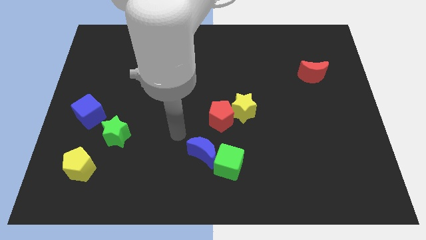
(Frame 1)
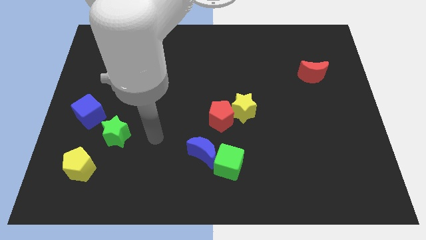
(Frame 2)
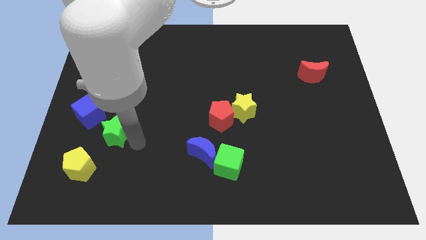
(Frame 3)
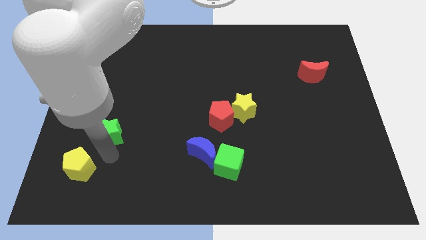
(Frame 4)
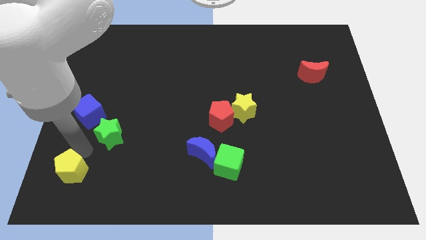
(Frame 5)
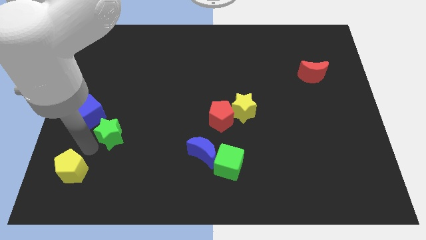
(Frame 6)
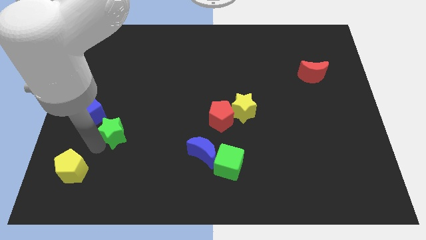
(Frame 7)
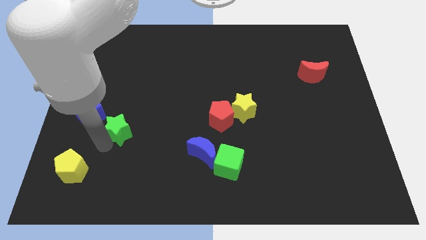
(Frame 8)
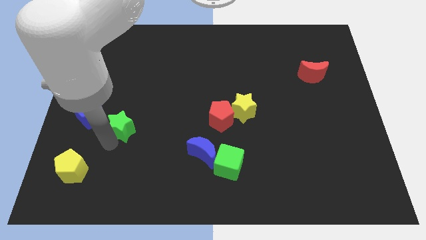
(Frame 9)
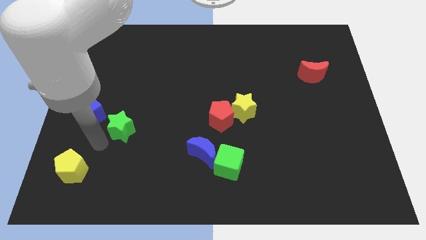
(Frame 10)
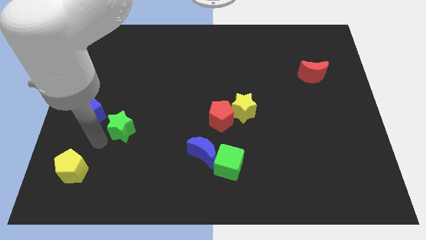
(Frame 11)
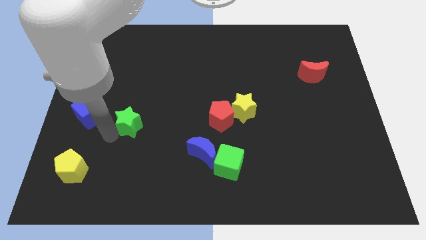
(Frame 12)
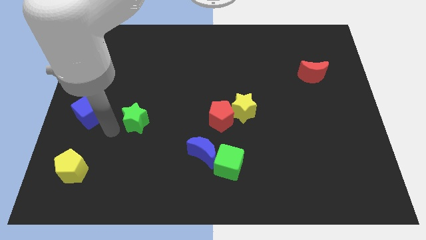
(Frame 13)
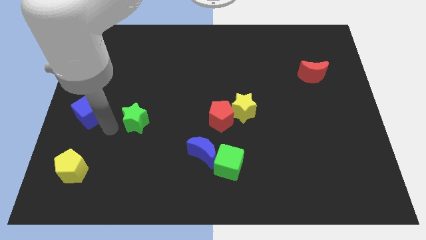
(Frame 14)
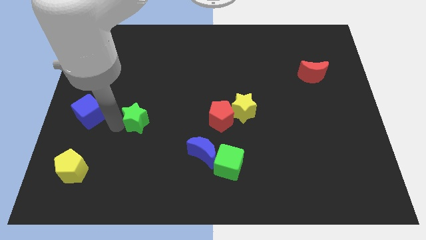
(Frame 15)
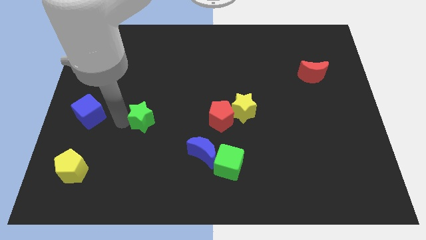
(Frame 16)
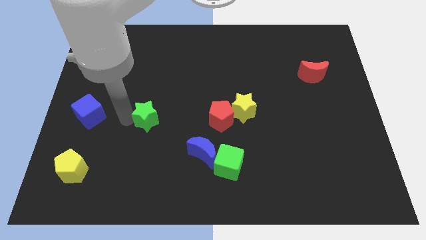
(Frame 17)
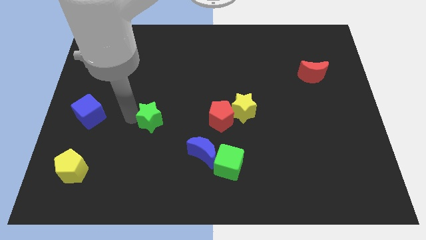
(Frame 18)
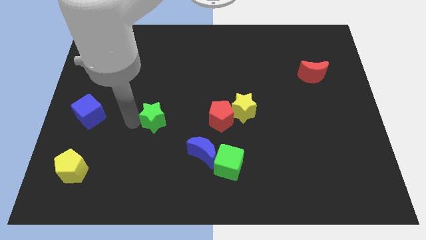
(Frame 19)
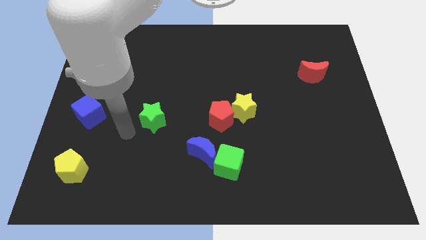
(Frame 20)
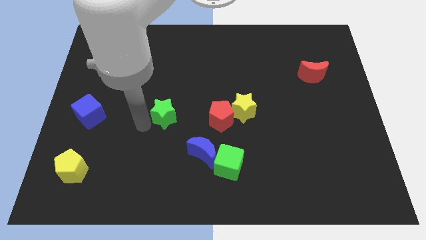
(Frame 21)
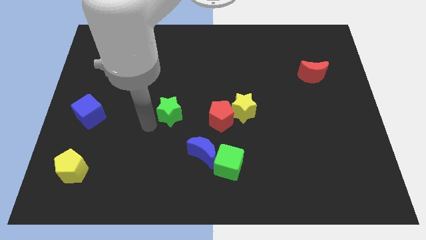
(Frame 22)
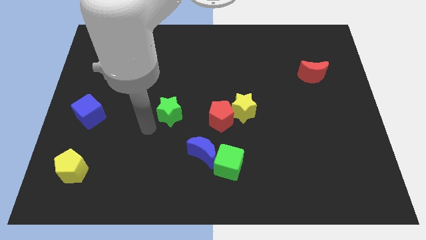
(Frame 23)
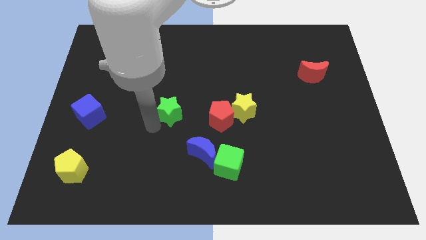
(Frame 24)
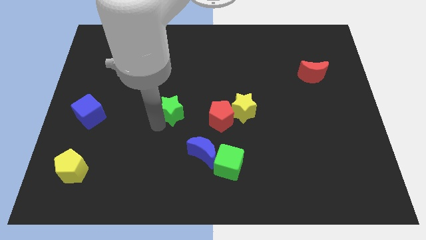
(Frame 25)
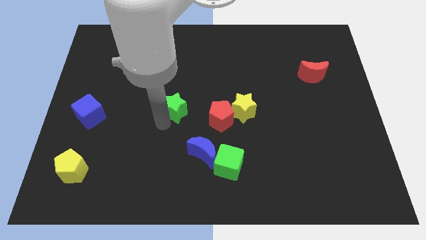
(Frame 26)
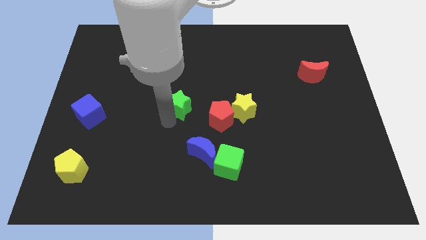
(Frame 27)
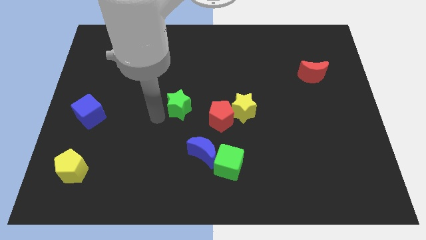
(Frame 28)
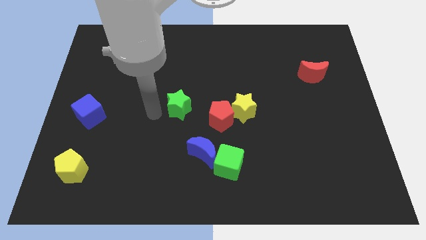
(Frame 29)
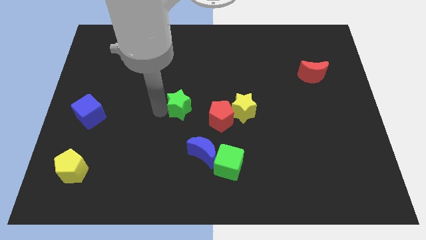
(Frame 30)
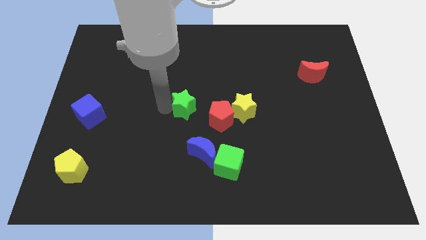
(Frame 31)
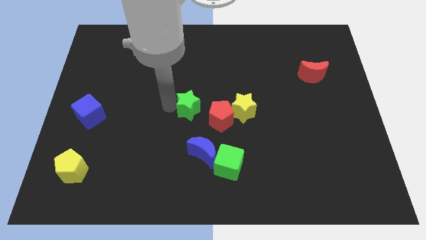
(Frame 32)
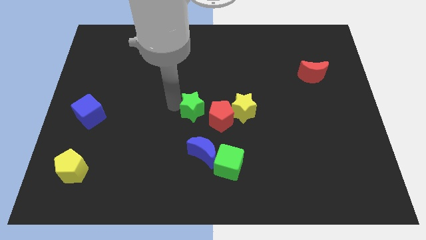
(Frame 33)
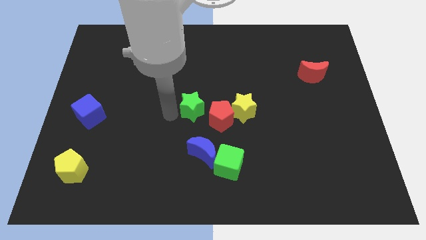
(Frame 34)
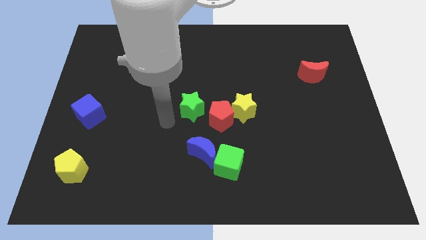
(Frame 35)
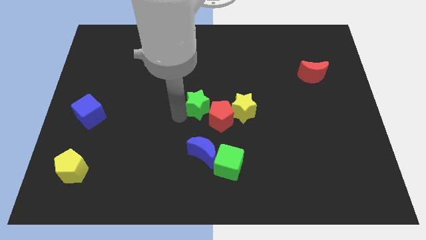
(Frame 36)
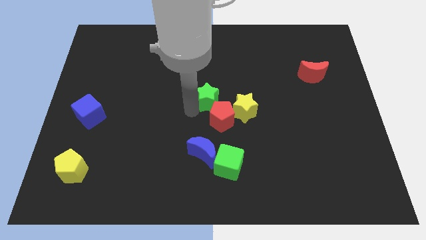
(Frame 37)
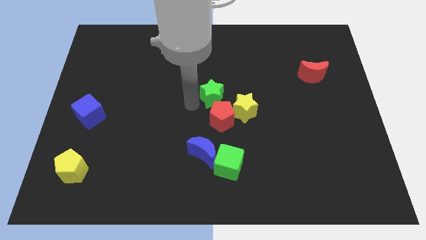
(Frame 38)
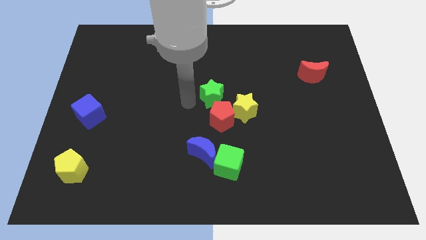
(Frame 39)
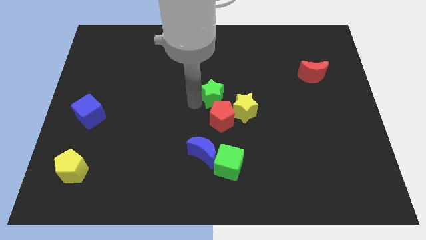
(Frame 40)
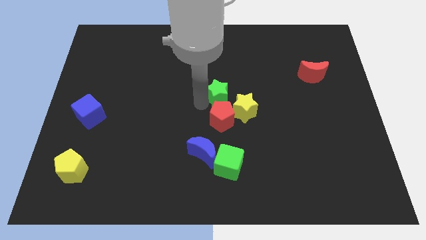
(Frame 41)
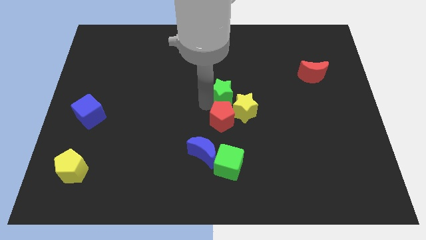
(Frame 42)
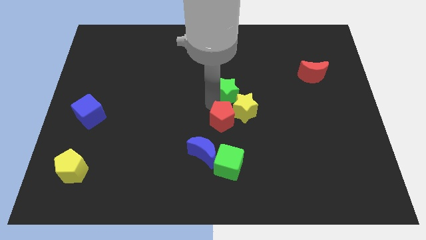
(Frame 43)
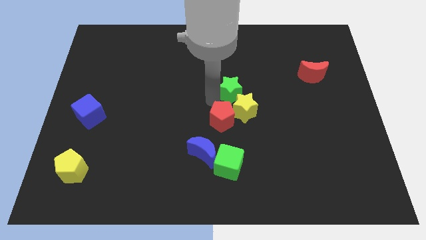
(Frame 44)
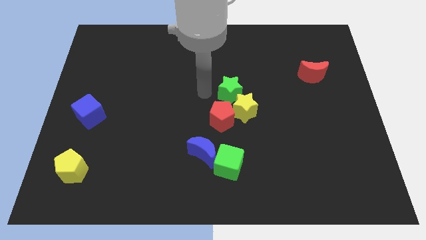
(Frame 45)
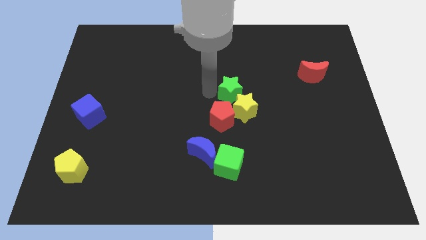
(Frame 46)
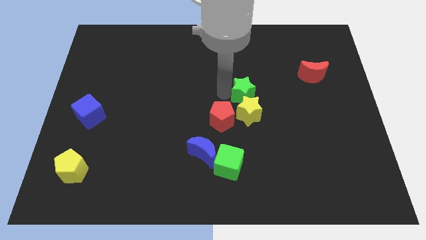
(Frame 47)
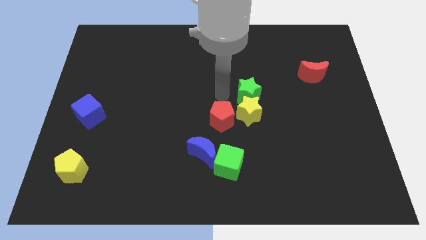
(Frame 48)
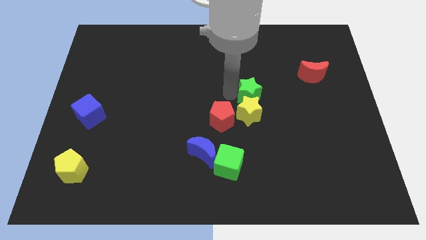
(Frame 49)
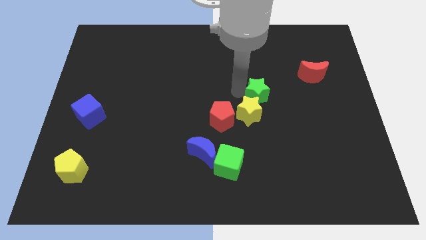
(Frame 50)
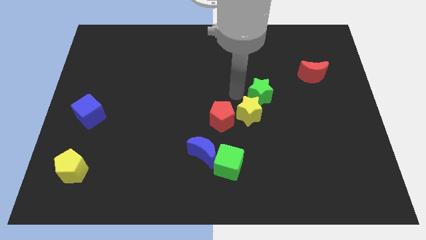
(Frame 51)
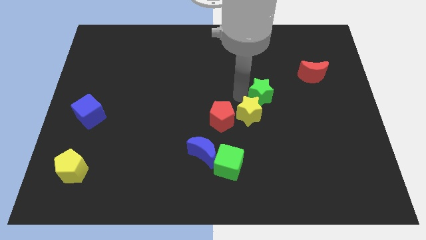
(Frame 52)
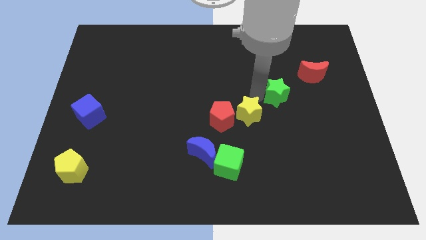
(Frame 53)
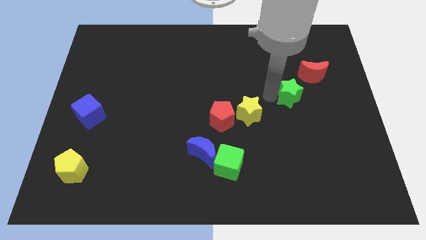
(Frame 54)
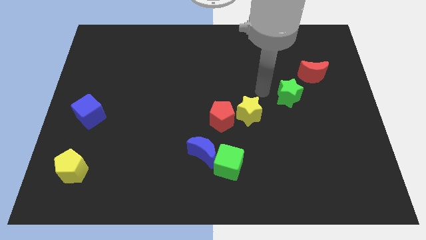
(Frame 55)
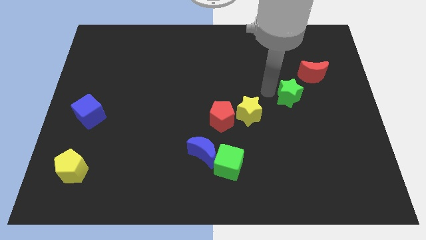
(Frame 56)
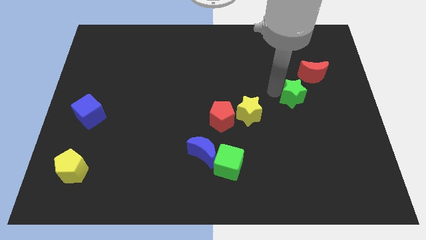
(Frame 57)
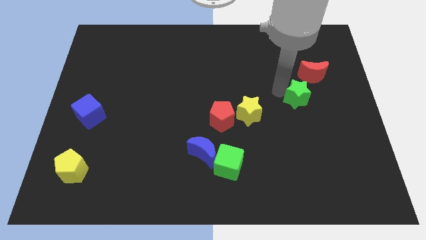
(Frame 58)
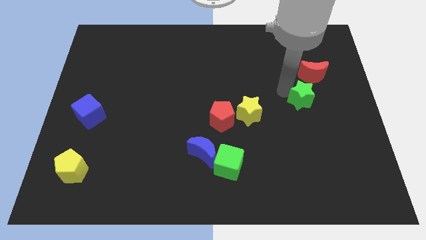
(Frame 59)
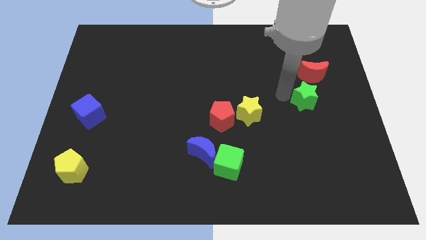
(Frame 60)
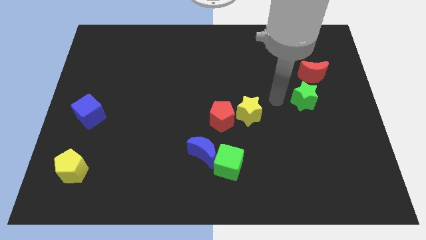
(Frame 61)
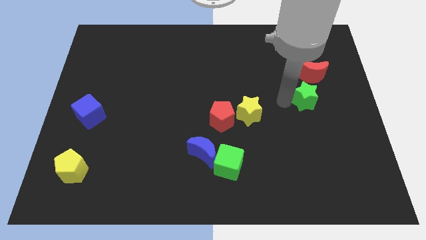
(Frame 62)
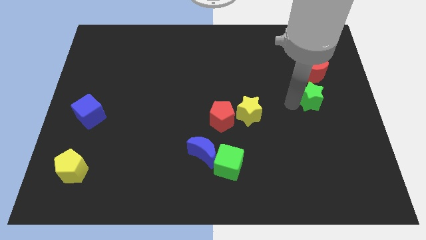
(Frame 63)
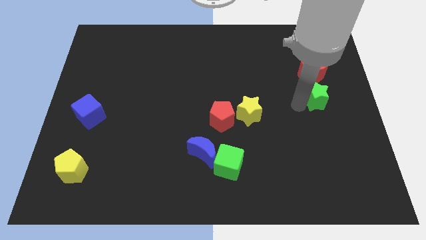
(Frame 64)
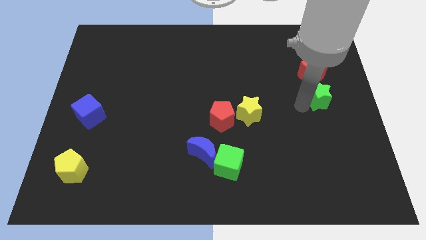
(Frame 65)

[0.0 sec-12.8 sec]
slide the green star to the center right
